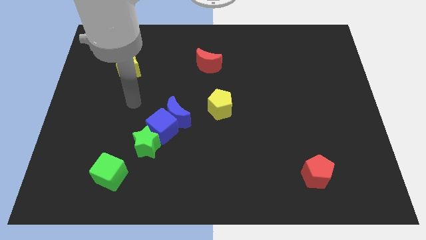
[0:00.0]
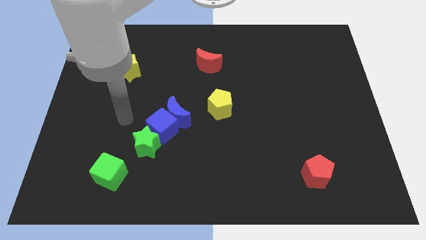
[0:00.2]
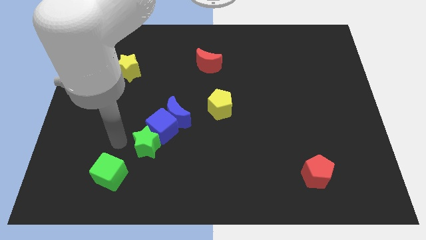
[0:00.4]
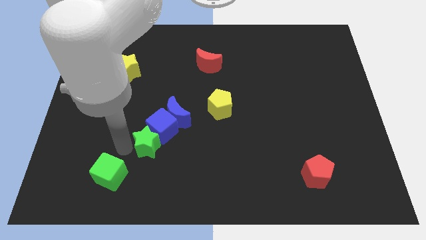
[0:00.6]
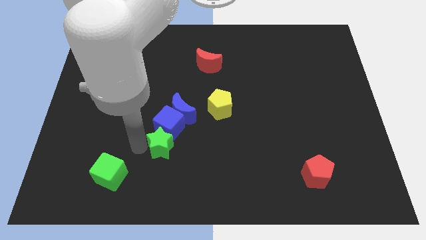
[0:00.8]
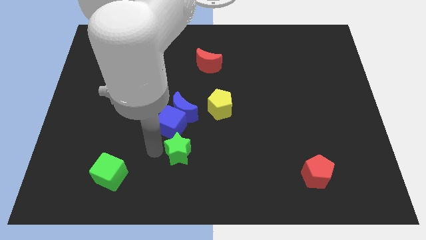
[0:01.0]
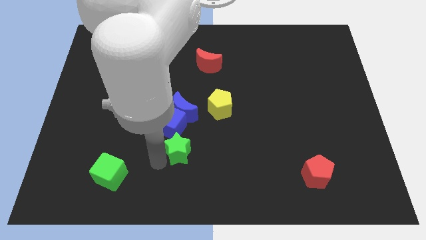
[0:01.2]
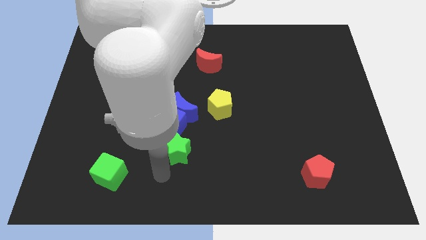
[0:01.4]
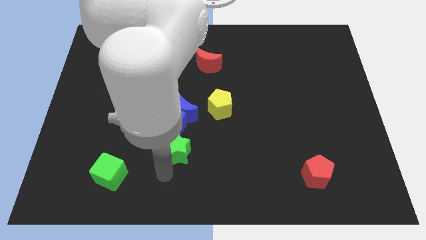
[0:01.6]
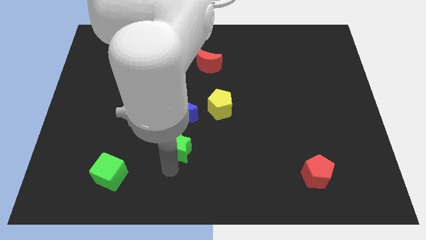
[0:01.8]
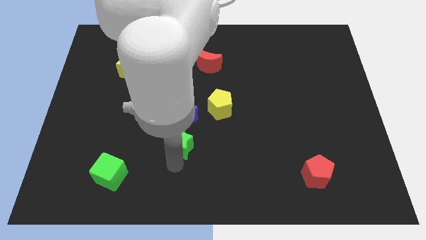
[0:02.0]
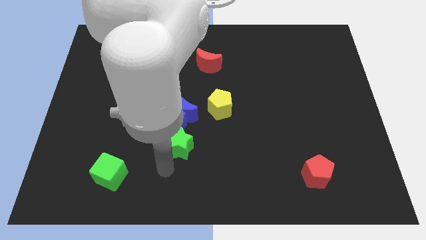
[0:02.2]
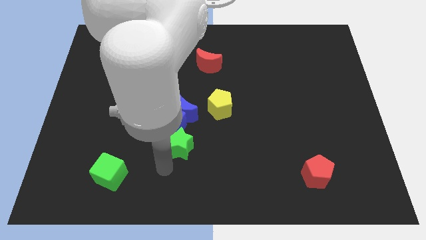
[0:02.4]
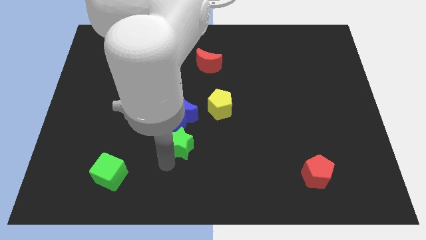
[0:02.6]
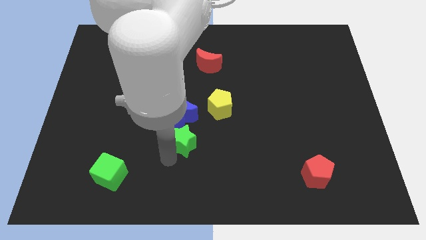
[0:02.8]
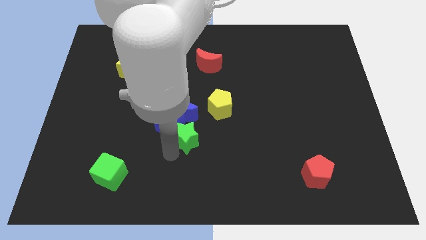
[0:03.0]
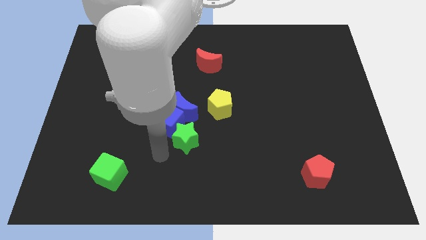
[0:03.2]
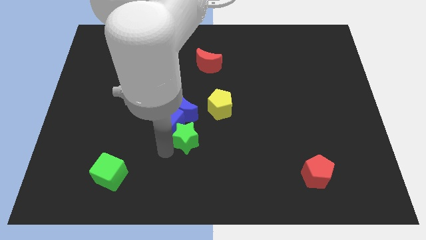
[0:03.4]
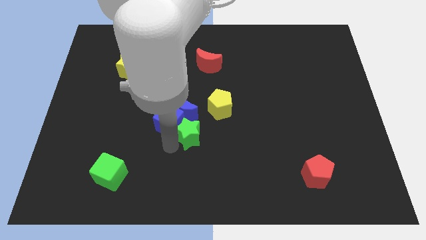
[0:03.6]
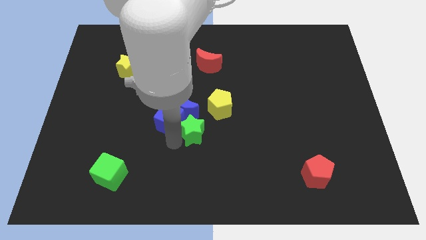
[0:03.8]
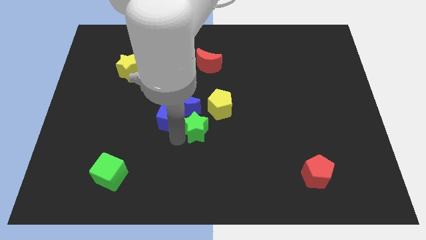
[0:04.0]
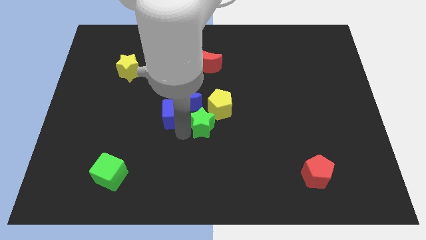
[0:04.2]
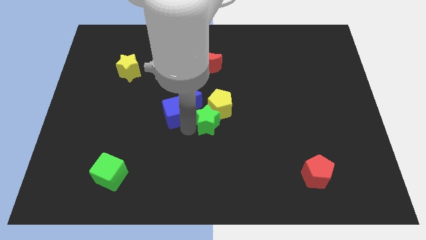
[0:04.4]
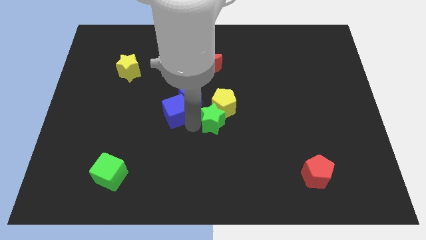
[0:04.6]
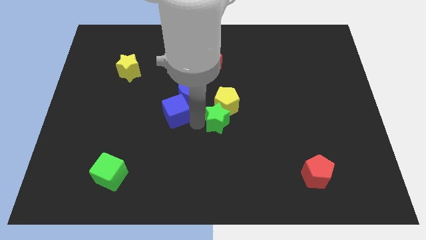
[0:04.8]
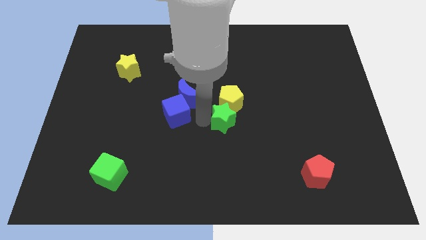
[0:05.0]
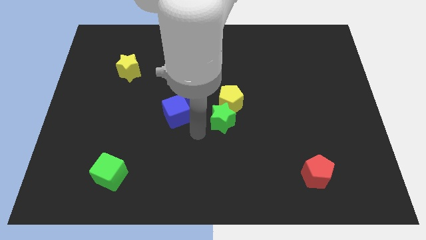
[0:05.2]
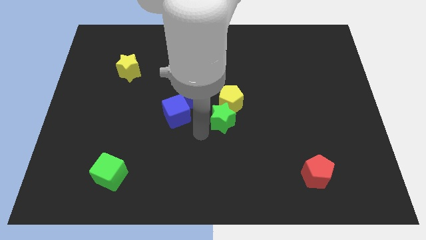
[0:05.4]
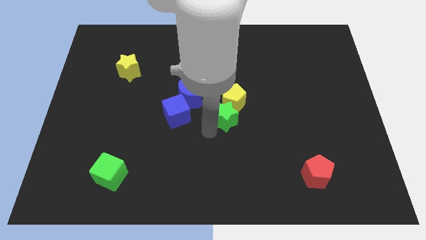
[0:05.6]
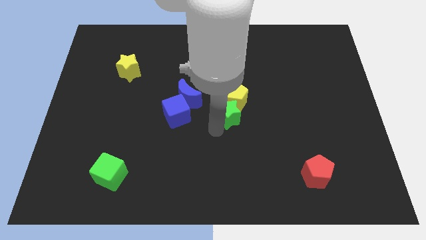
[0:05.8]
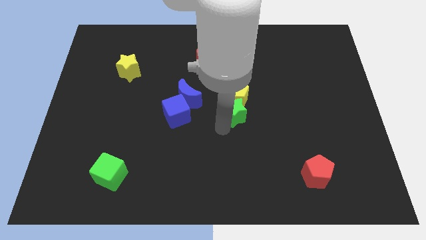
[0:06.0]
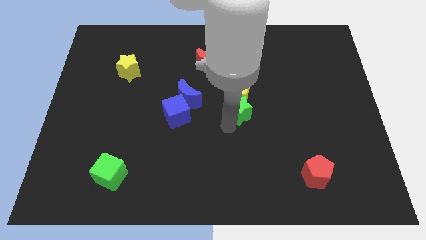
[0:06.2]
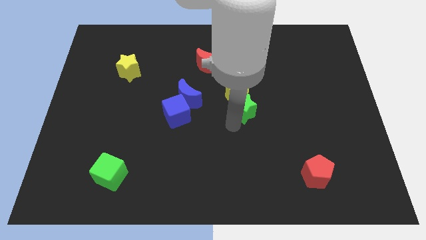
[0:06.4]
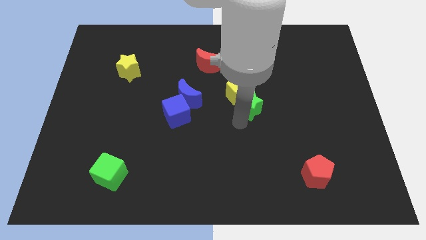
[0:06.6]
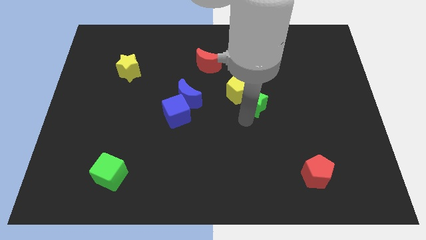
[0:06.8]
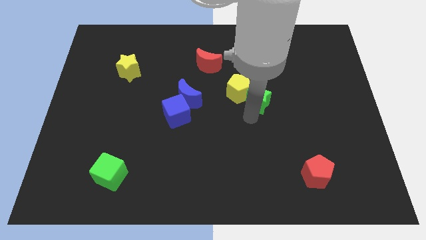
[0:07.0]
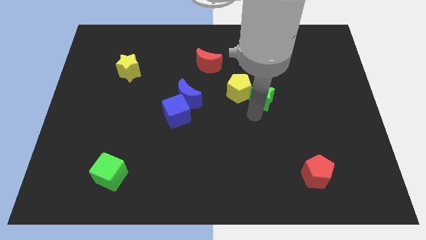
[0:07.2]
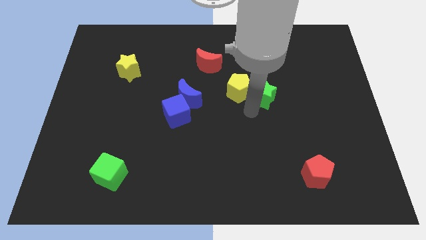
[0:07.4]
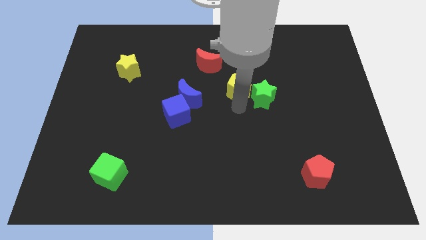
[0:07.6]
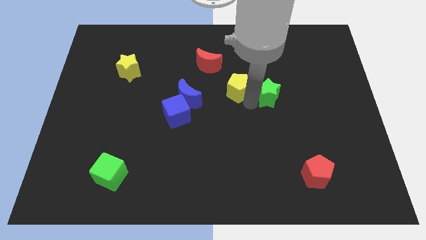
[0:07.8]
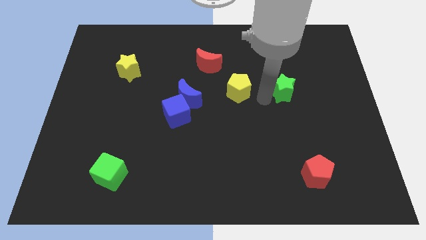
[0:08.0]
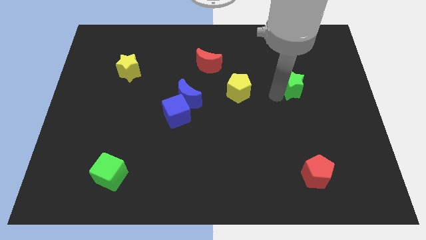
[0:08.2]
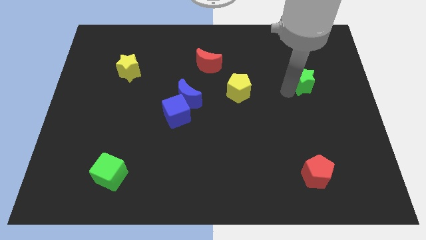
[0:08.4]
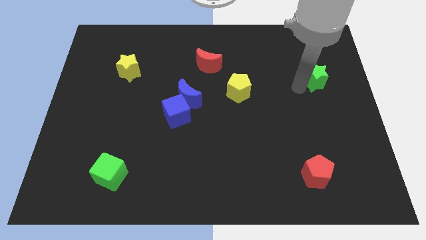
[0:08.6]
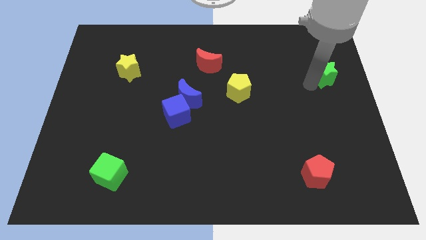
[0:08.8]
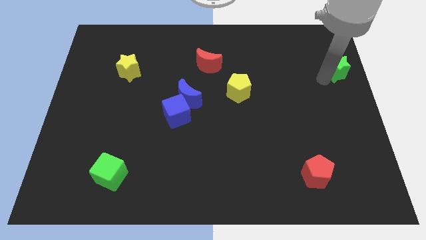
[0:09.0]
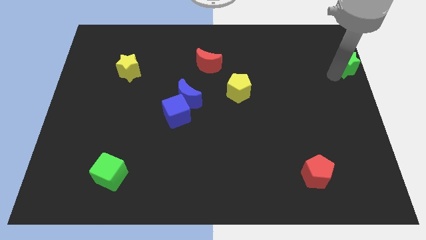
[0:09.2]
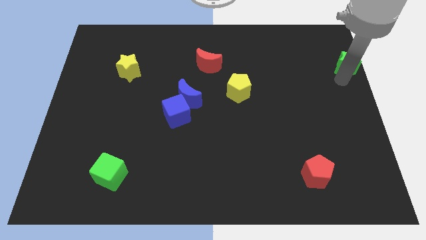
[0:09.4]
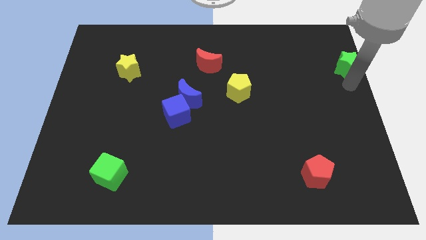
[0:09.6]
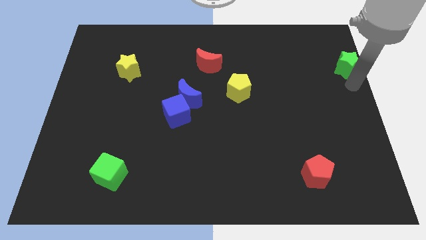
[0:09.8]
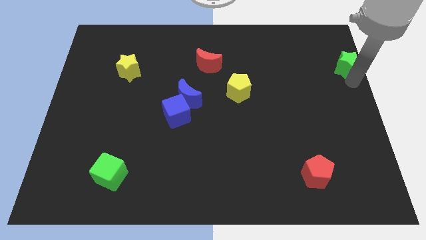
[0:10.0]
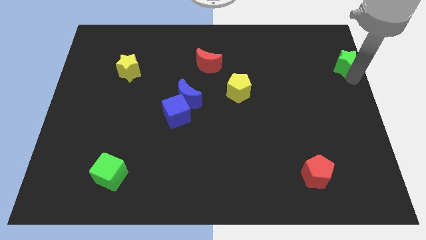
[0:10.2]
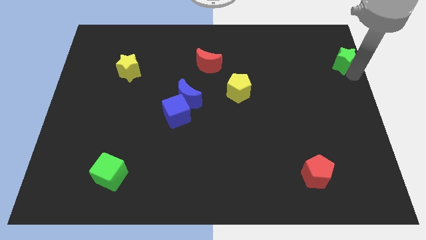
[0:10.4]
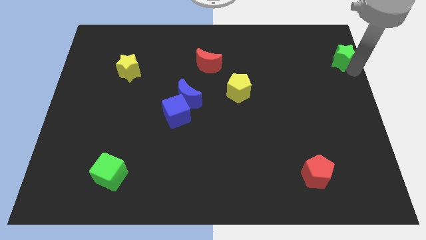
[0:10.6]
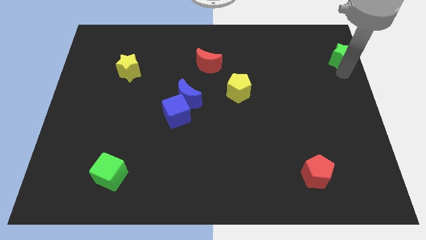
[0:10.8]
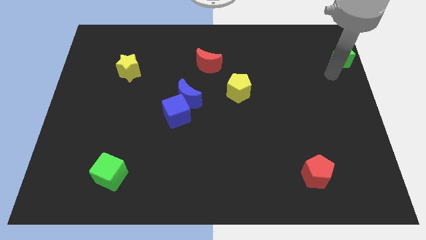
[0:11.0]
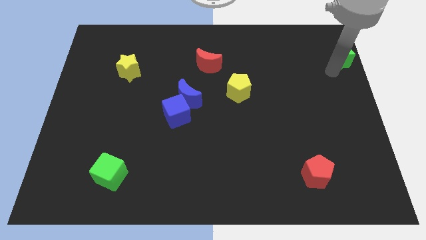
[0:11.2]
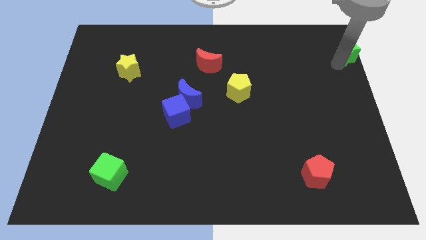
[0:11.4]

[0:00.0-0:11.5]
move the green star to the top right

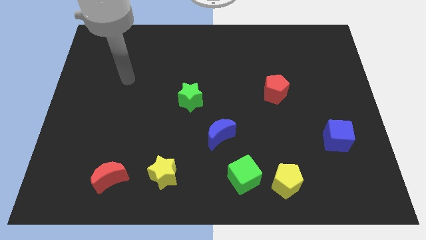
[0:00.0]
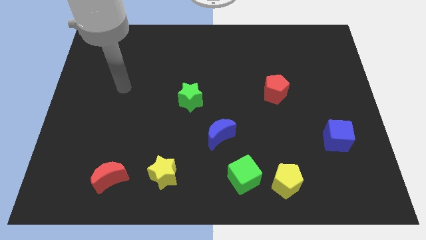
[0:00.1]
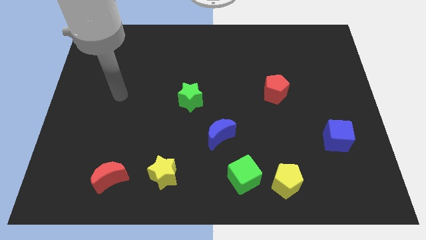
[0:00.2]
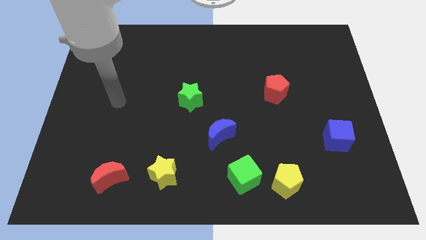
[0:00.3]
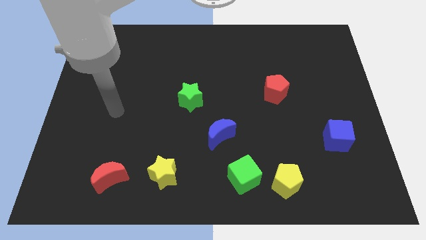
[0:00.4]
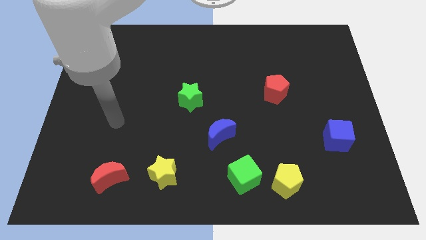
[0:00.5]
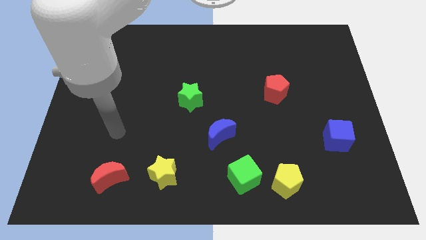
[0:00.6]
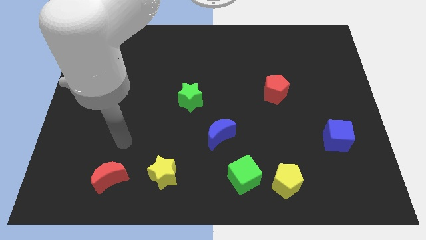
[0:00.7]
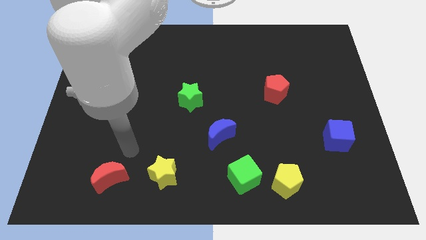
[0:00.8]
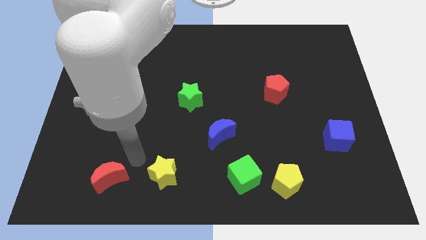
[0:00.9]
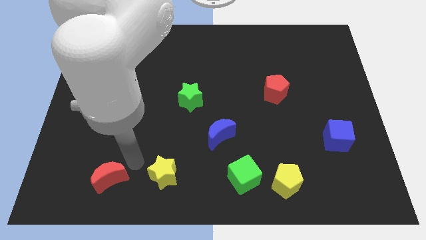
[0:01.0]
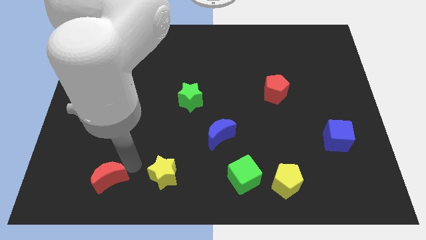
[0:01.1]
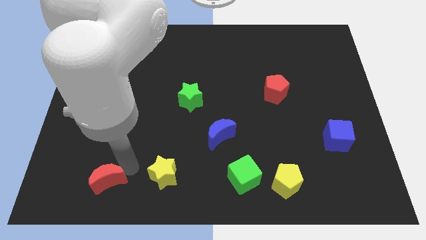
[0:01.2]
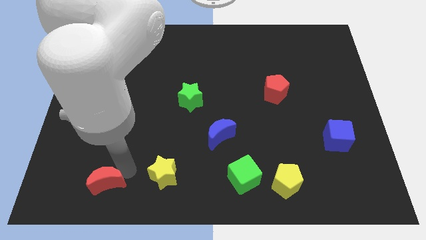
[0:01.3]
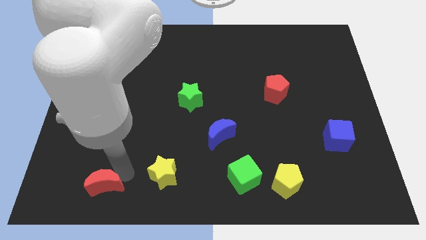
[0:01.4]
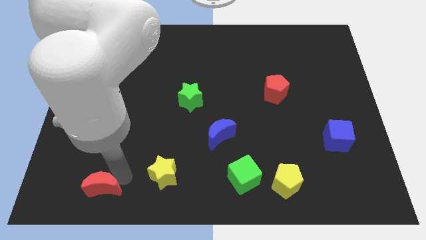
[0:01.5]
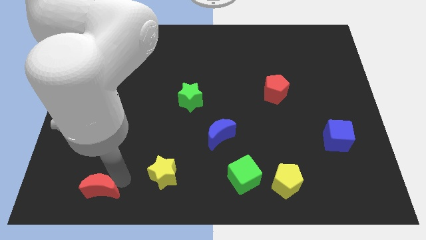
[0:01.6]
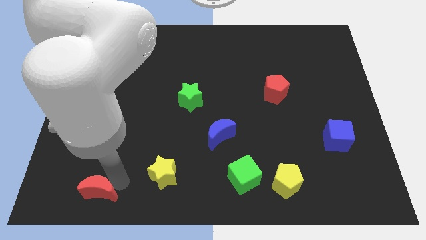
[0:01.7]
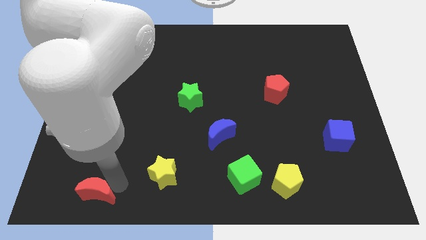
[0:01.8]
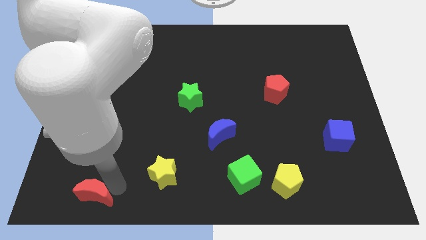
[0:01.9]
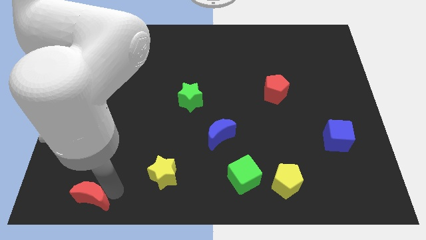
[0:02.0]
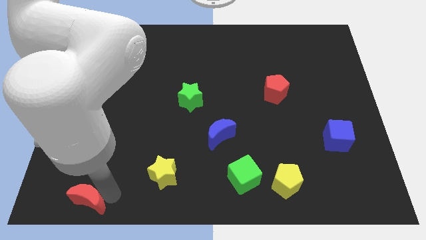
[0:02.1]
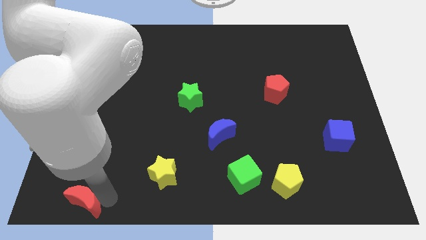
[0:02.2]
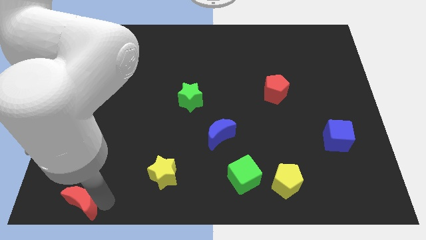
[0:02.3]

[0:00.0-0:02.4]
move the red moon to the bottom left of the board
